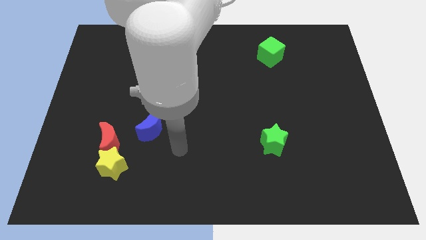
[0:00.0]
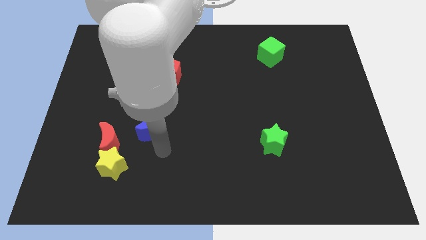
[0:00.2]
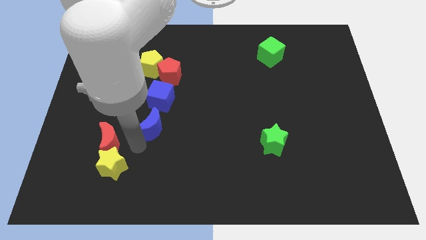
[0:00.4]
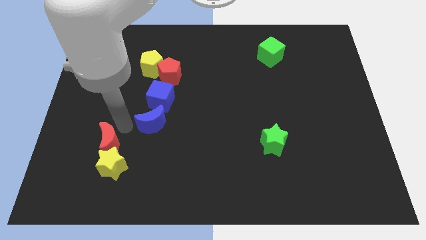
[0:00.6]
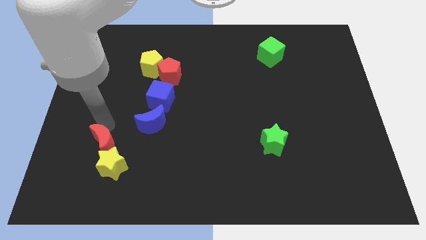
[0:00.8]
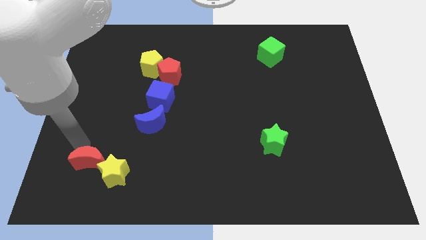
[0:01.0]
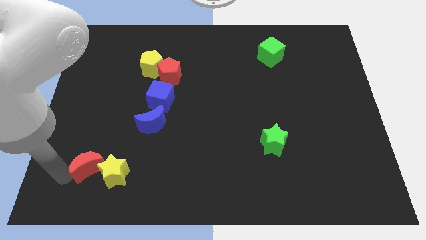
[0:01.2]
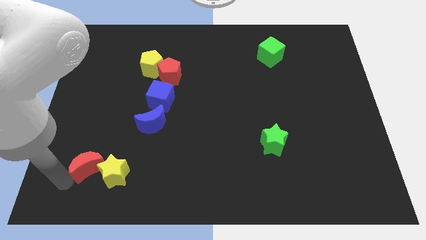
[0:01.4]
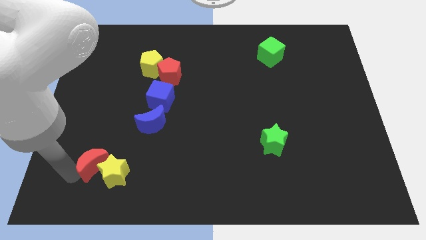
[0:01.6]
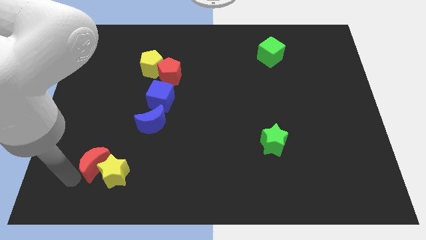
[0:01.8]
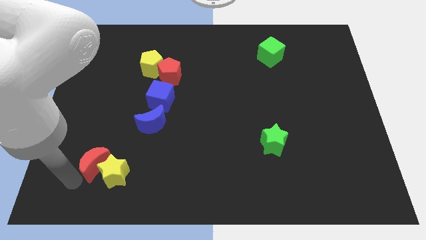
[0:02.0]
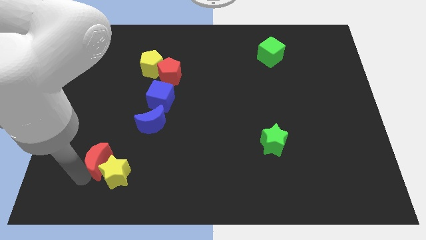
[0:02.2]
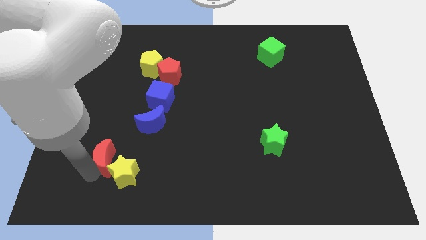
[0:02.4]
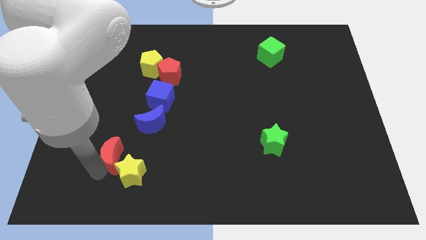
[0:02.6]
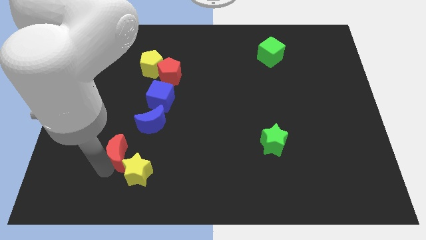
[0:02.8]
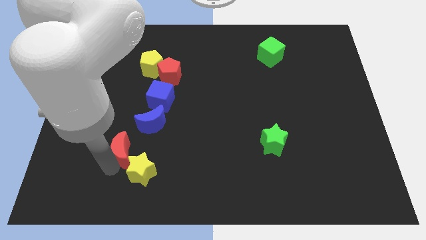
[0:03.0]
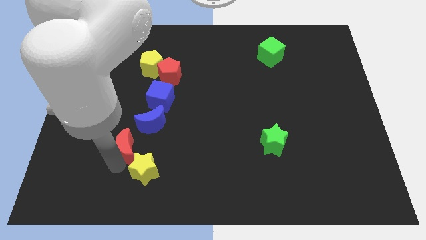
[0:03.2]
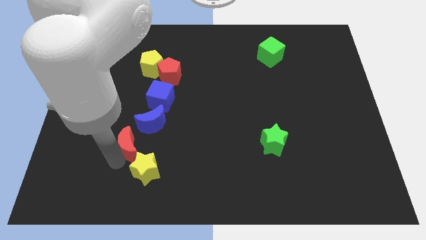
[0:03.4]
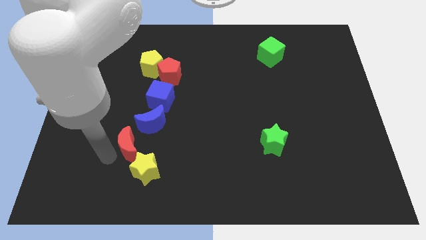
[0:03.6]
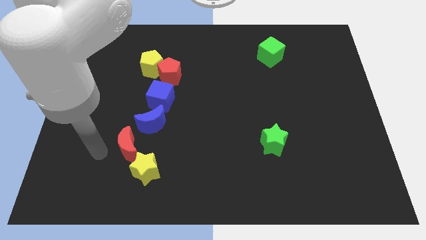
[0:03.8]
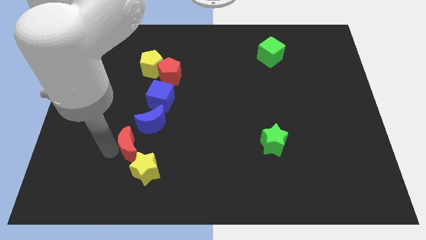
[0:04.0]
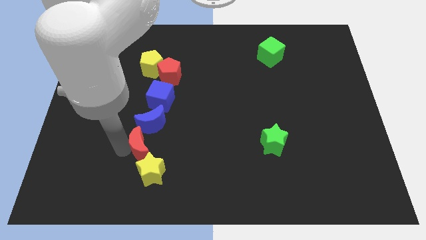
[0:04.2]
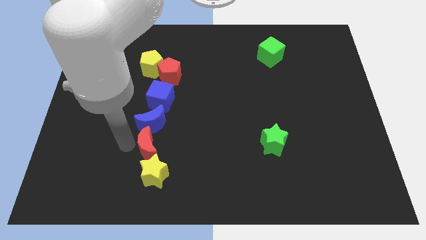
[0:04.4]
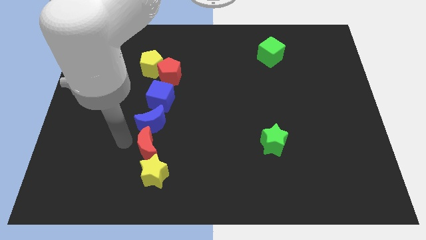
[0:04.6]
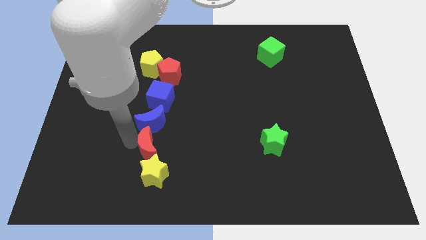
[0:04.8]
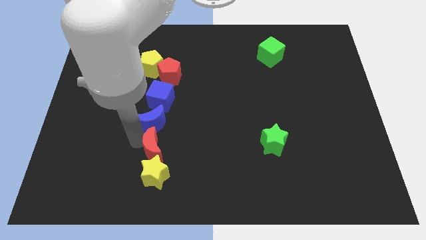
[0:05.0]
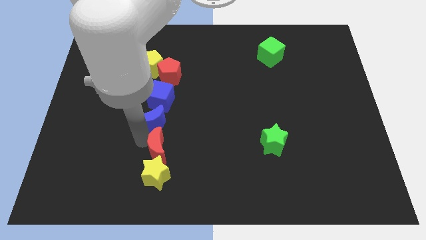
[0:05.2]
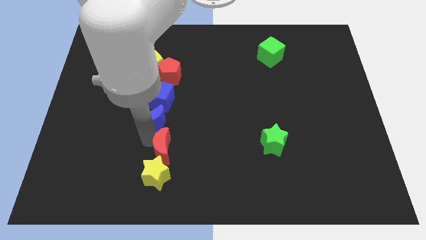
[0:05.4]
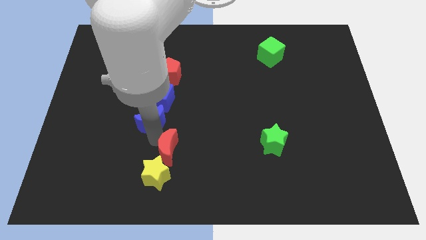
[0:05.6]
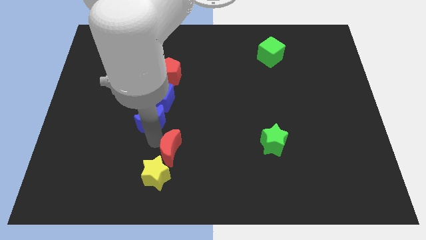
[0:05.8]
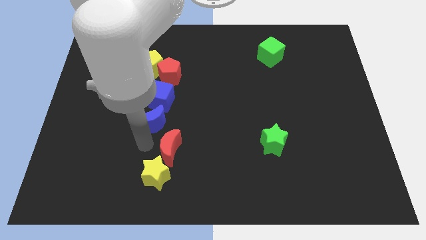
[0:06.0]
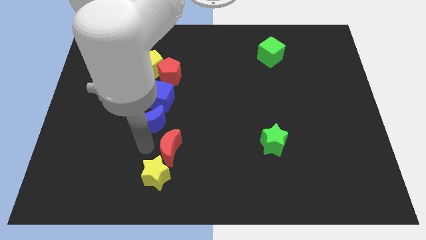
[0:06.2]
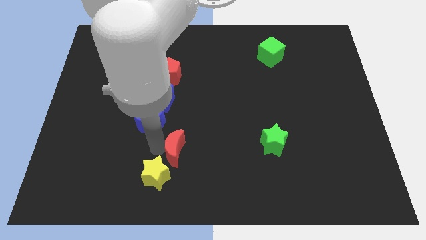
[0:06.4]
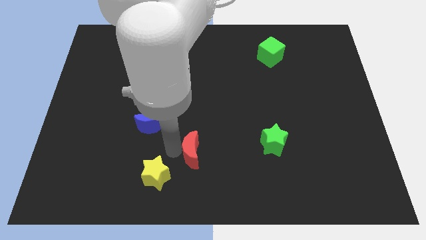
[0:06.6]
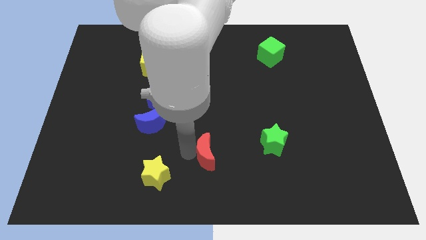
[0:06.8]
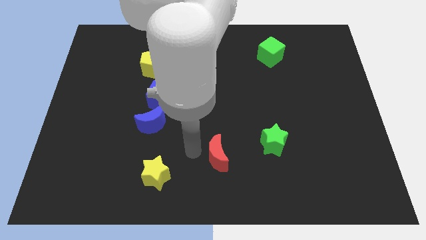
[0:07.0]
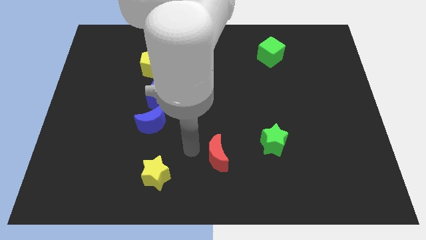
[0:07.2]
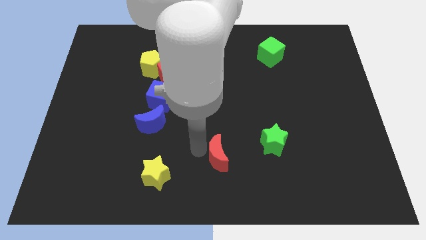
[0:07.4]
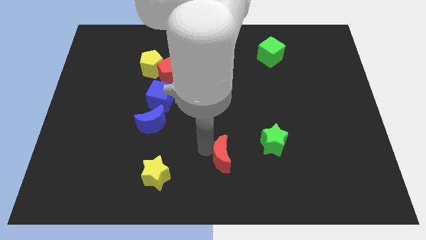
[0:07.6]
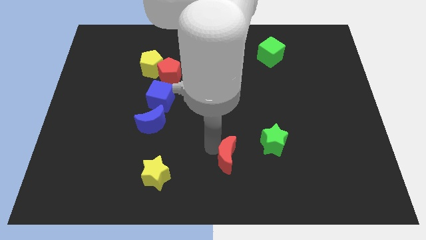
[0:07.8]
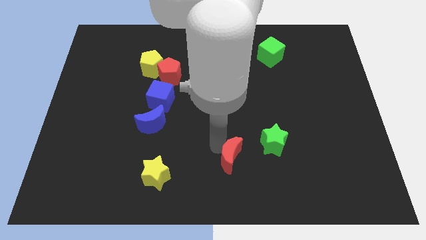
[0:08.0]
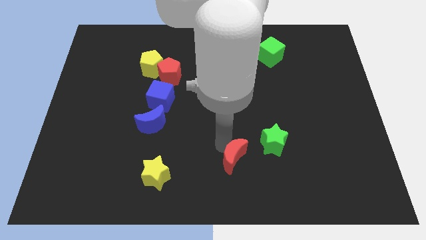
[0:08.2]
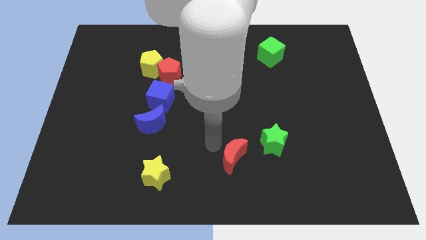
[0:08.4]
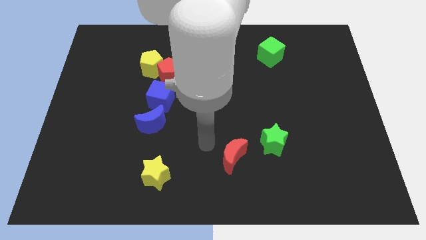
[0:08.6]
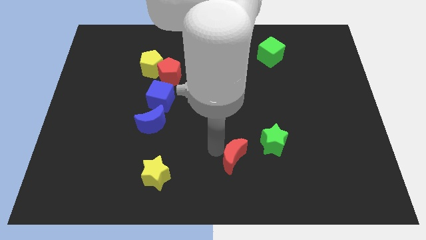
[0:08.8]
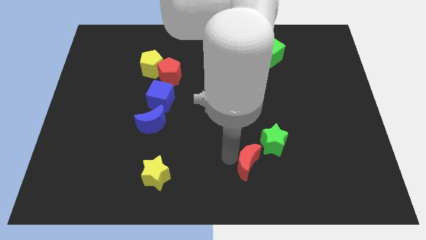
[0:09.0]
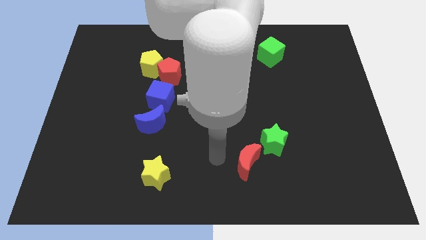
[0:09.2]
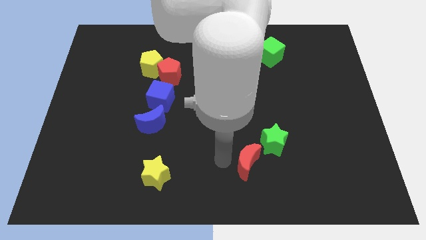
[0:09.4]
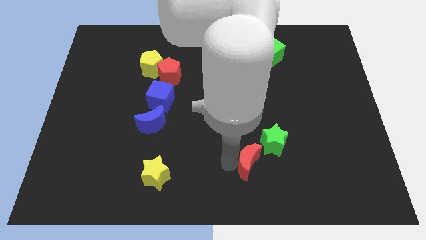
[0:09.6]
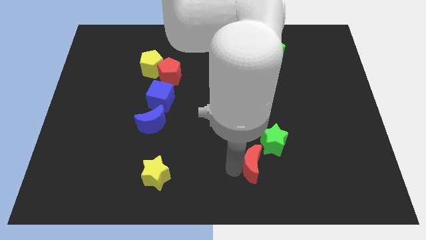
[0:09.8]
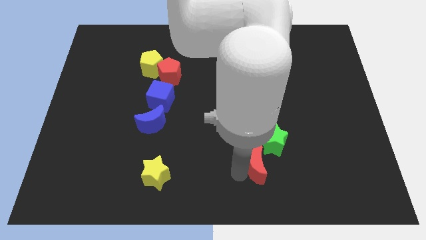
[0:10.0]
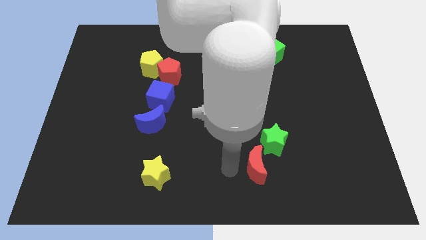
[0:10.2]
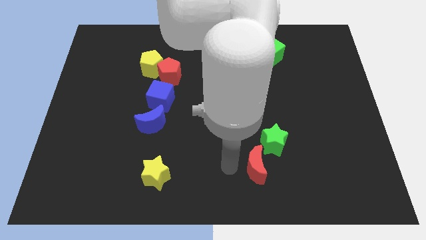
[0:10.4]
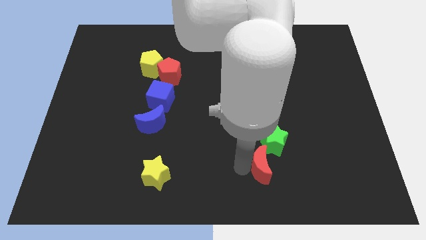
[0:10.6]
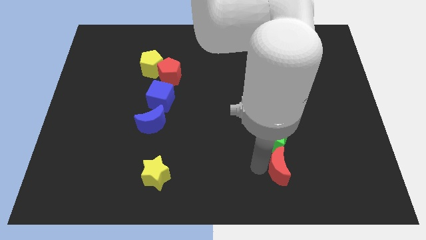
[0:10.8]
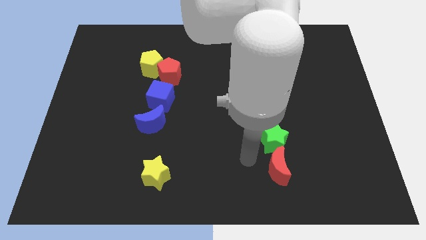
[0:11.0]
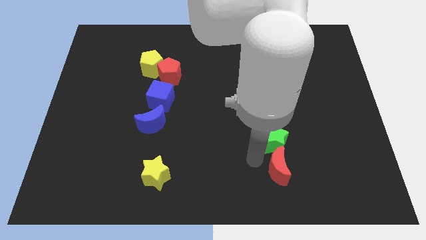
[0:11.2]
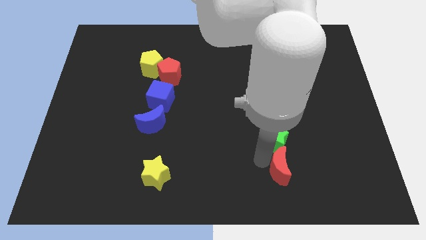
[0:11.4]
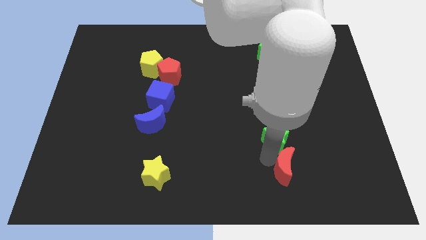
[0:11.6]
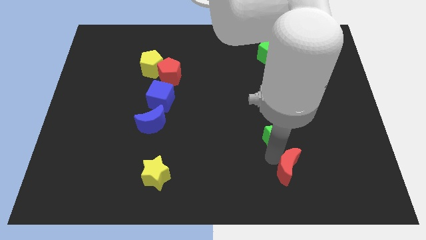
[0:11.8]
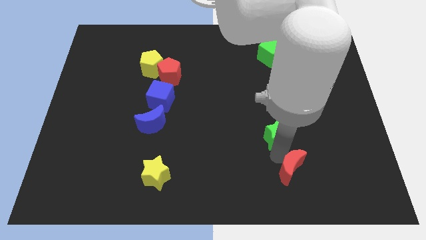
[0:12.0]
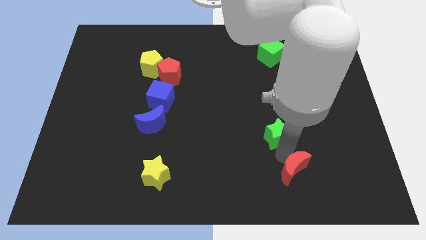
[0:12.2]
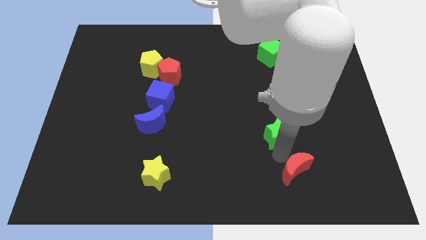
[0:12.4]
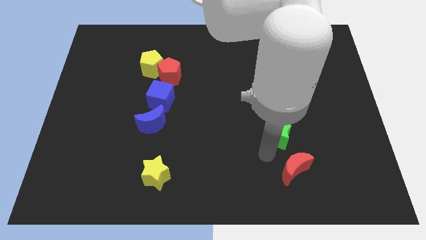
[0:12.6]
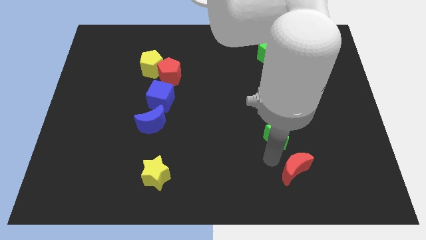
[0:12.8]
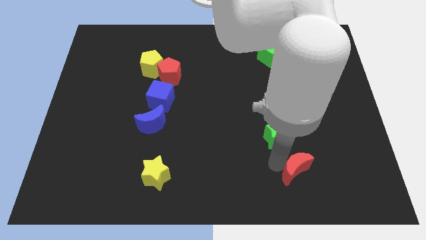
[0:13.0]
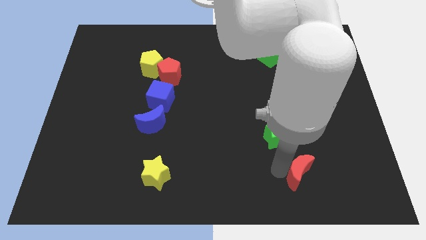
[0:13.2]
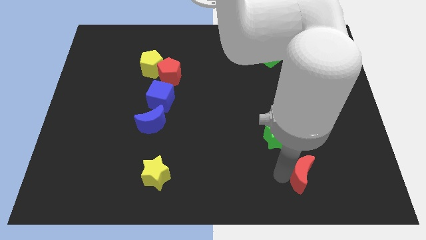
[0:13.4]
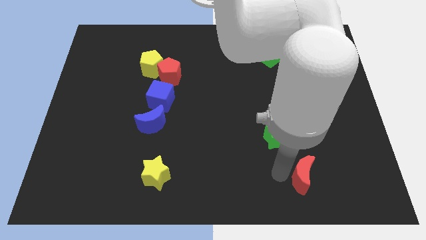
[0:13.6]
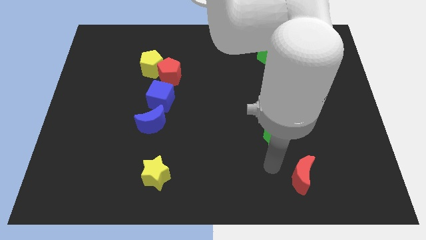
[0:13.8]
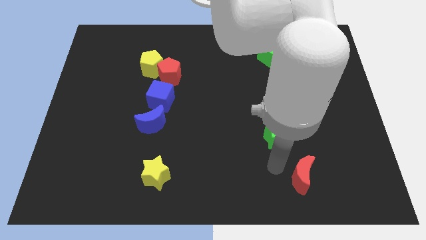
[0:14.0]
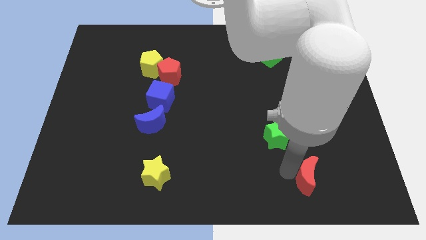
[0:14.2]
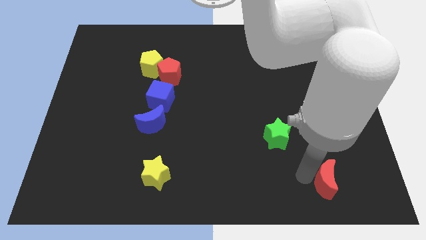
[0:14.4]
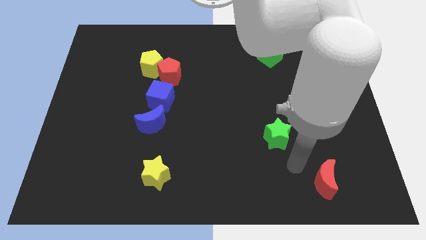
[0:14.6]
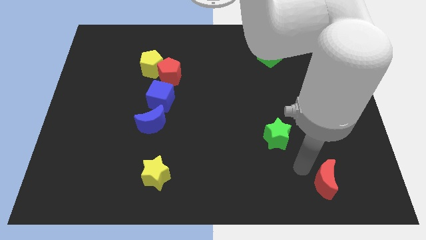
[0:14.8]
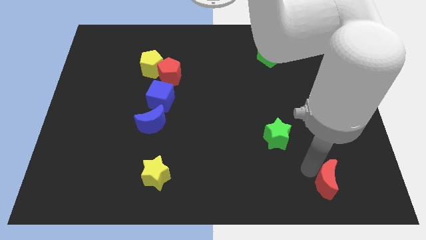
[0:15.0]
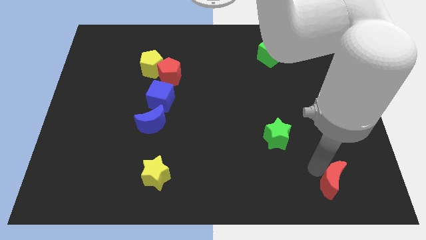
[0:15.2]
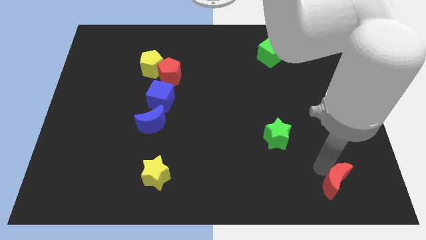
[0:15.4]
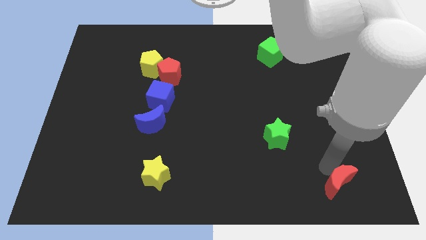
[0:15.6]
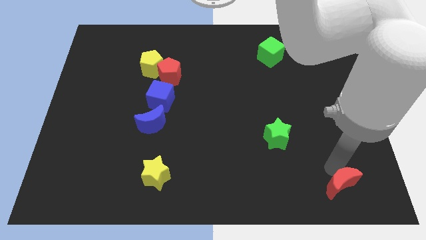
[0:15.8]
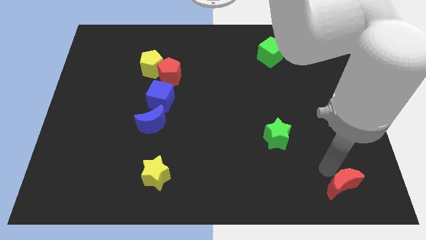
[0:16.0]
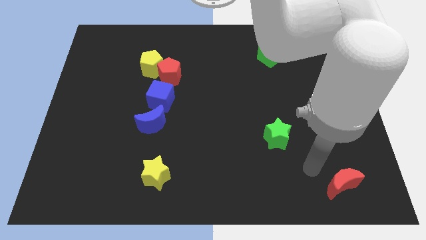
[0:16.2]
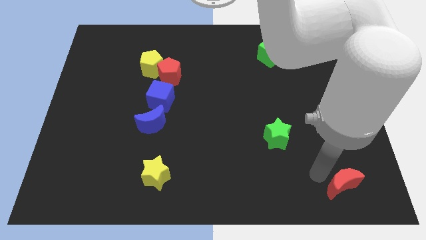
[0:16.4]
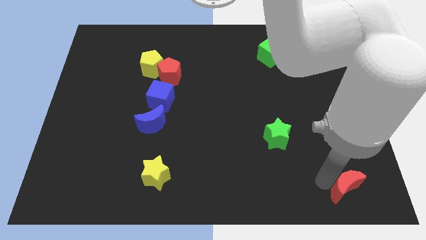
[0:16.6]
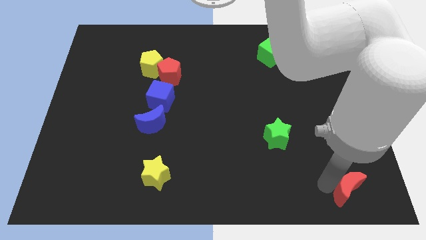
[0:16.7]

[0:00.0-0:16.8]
move the red moon to the bottom right corner
